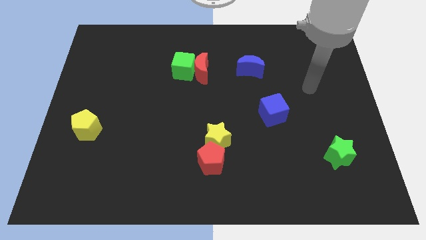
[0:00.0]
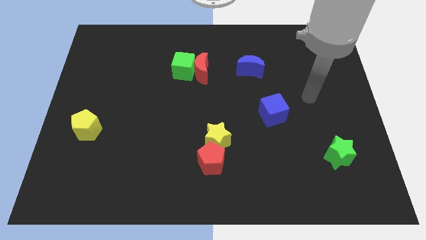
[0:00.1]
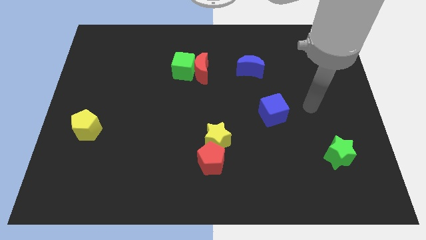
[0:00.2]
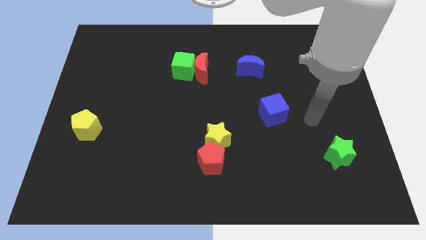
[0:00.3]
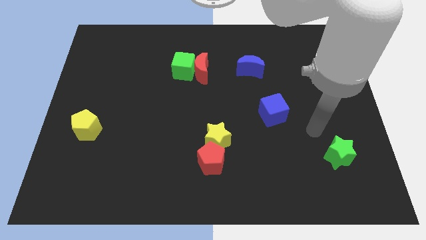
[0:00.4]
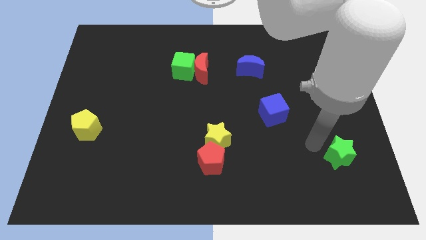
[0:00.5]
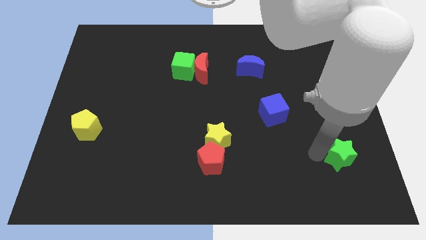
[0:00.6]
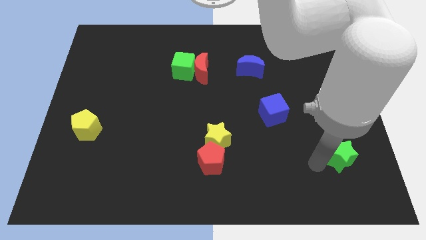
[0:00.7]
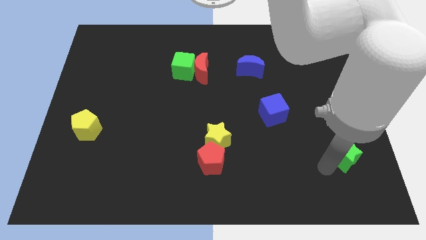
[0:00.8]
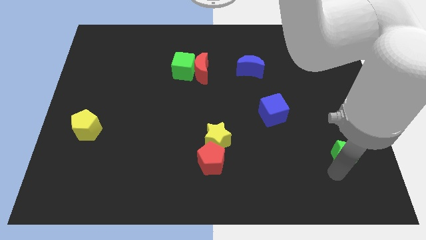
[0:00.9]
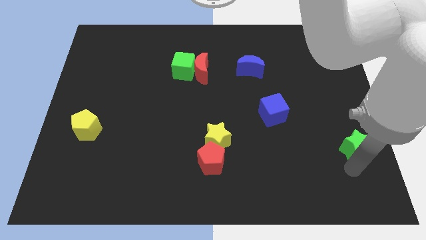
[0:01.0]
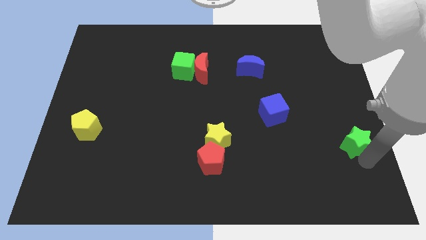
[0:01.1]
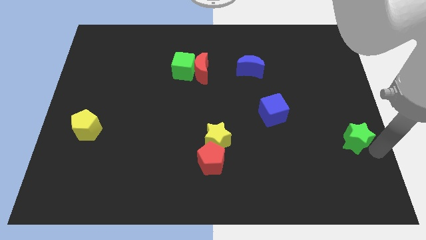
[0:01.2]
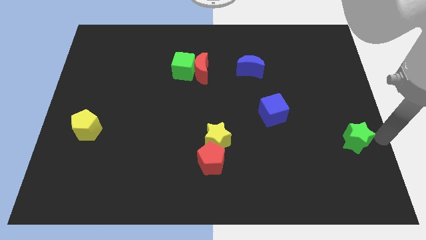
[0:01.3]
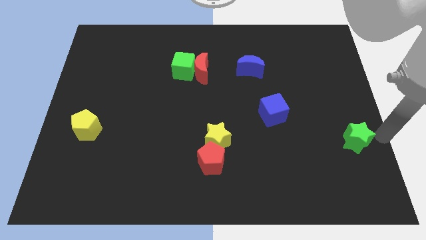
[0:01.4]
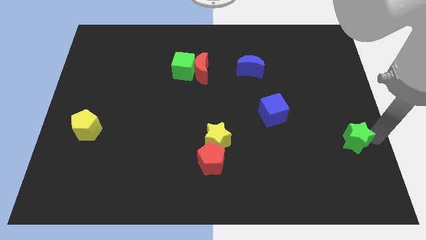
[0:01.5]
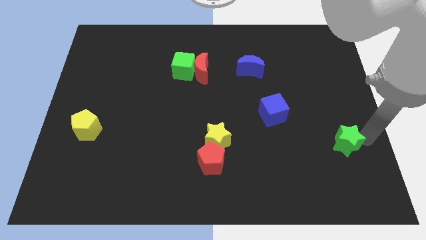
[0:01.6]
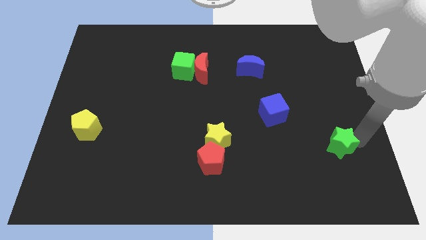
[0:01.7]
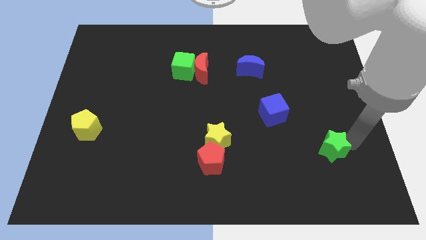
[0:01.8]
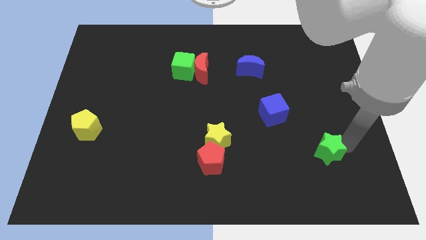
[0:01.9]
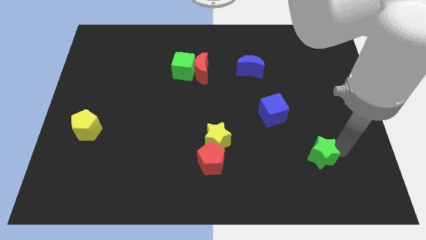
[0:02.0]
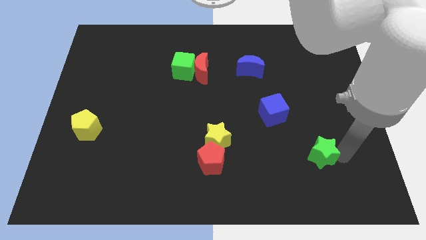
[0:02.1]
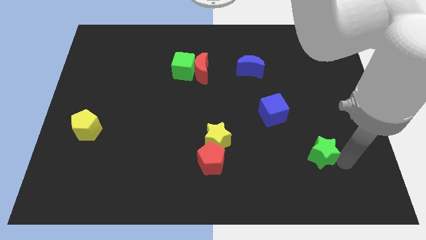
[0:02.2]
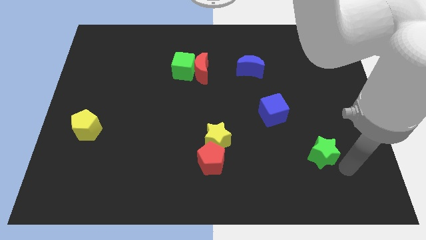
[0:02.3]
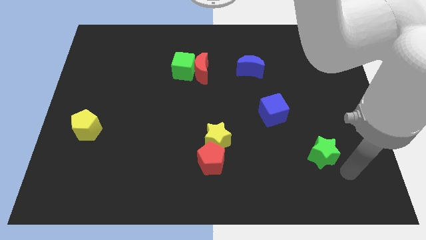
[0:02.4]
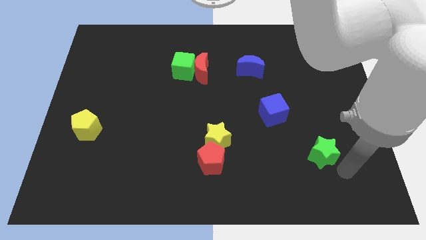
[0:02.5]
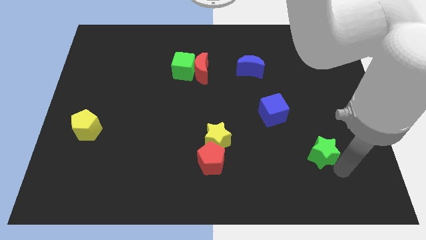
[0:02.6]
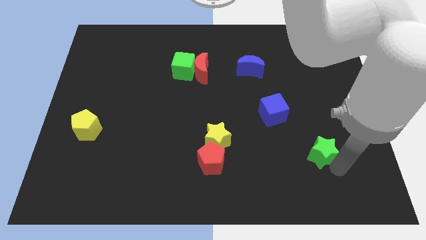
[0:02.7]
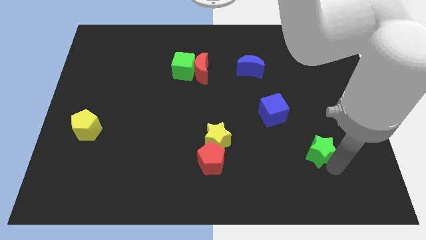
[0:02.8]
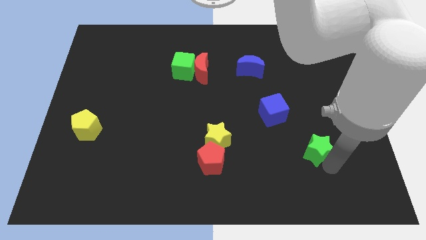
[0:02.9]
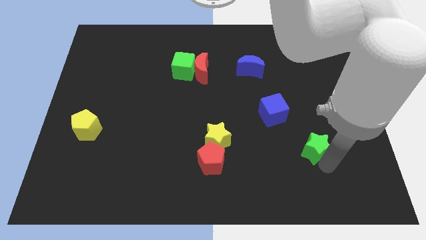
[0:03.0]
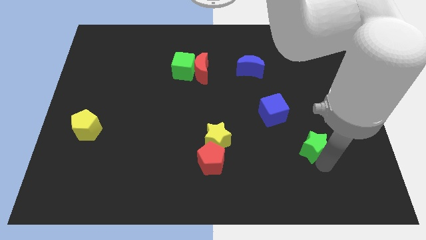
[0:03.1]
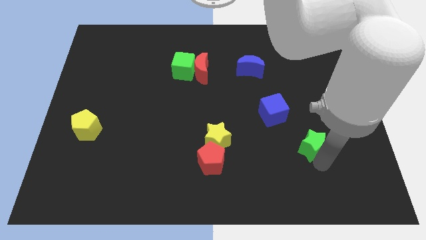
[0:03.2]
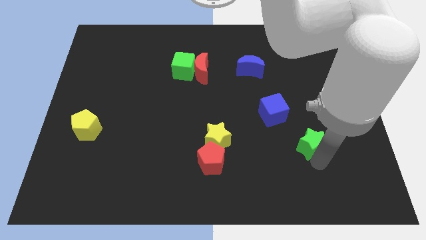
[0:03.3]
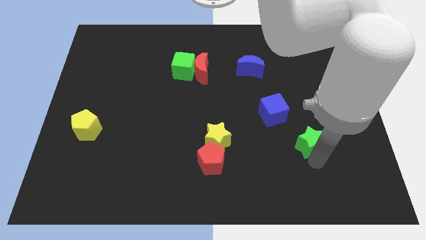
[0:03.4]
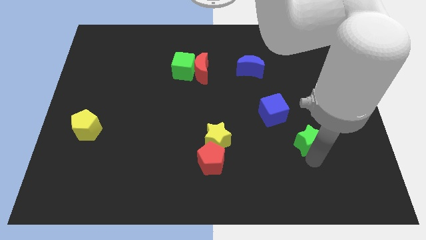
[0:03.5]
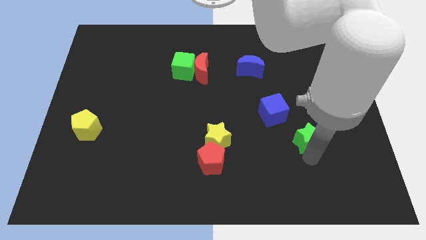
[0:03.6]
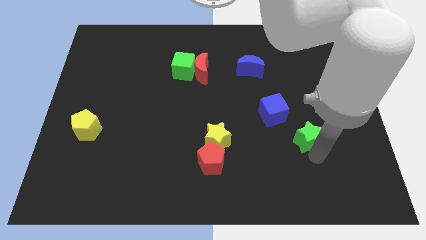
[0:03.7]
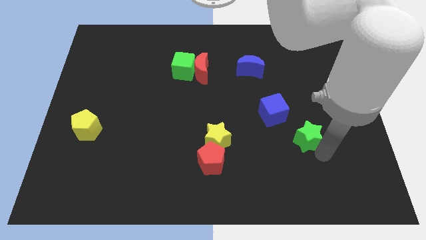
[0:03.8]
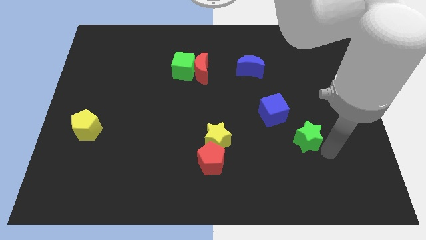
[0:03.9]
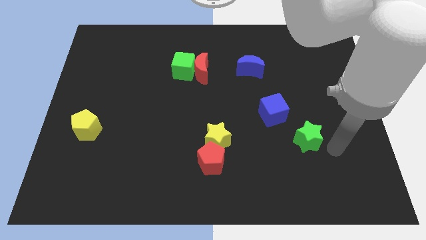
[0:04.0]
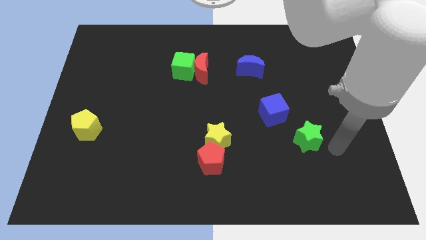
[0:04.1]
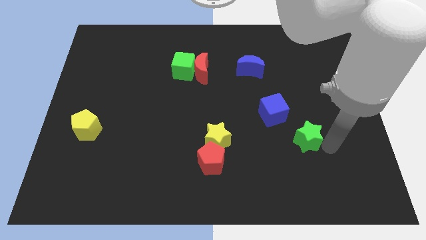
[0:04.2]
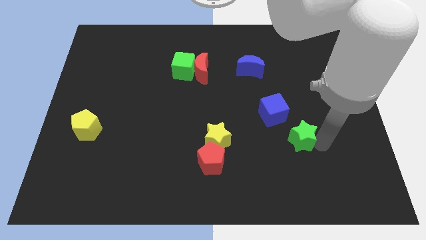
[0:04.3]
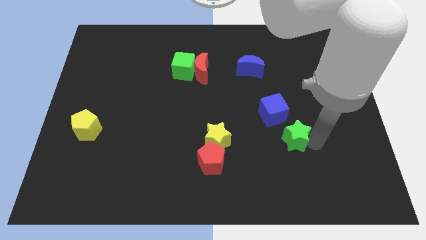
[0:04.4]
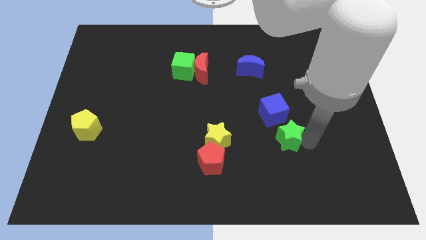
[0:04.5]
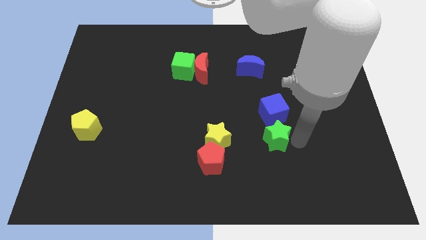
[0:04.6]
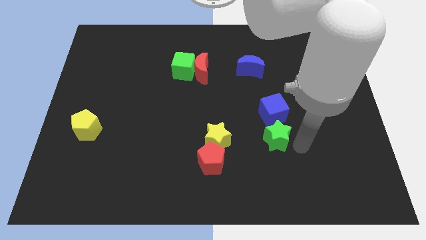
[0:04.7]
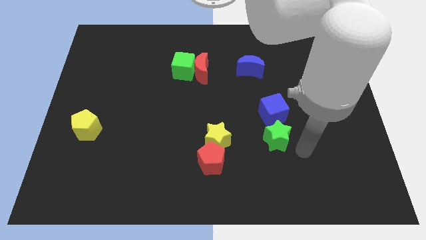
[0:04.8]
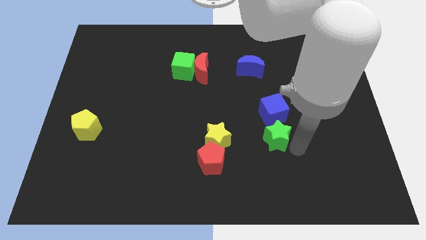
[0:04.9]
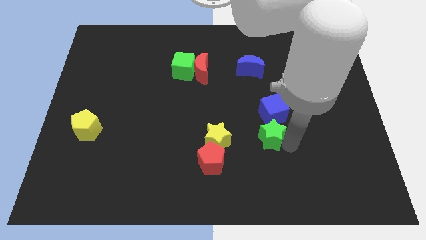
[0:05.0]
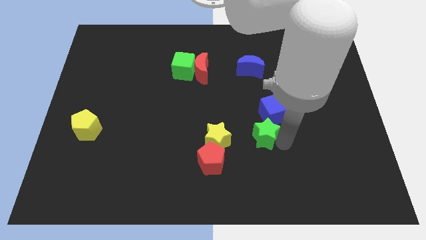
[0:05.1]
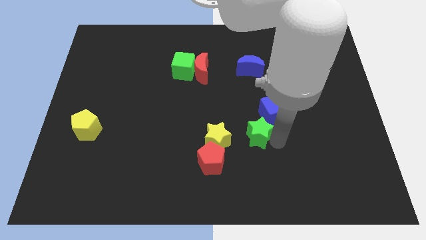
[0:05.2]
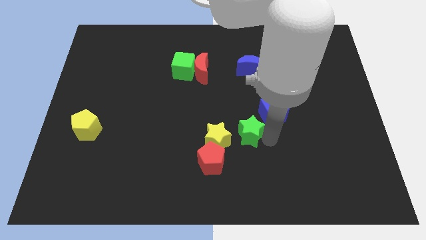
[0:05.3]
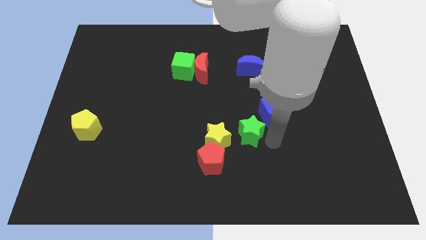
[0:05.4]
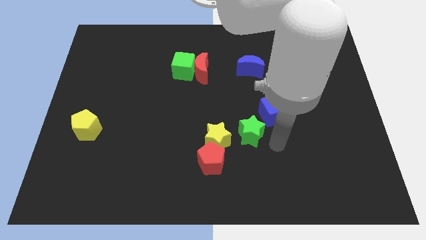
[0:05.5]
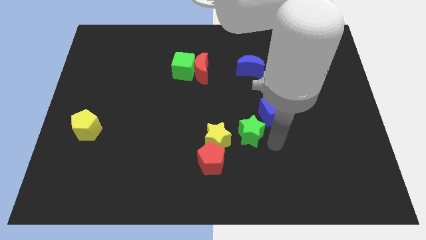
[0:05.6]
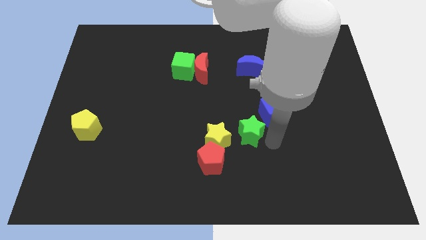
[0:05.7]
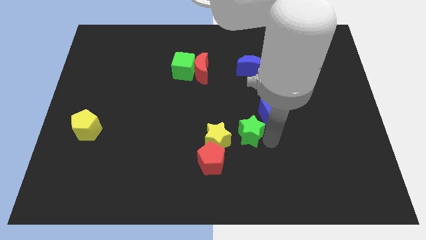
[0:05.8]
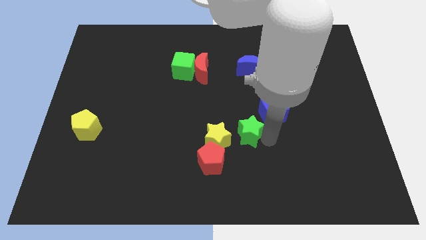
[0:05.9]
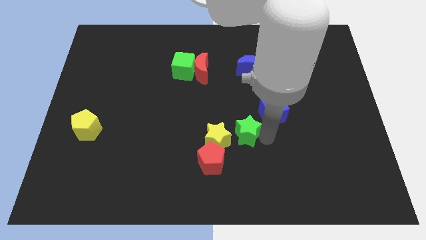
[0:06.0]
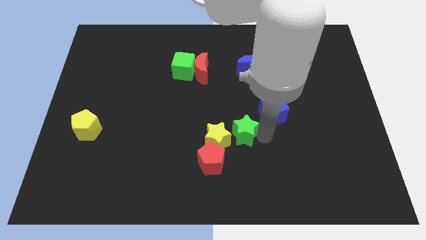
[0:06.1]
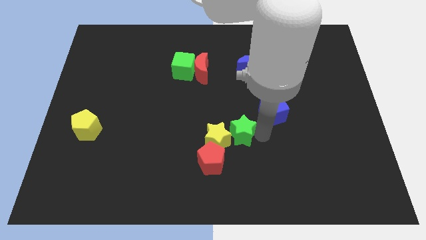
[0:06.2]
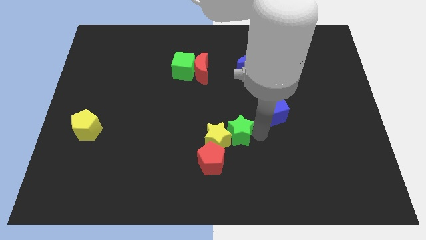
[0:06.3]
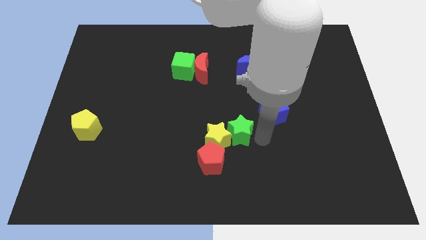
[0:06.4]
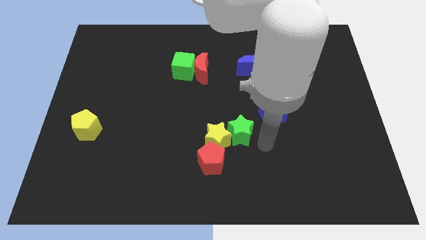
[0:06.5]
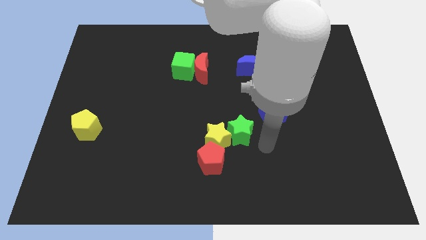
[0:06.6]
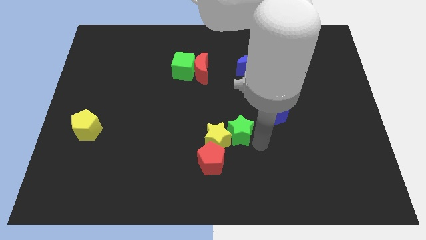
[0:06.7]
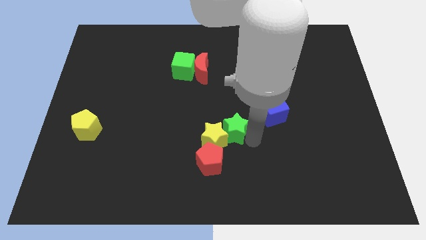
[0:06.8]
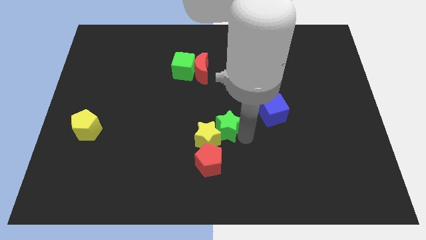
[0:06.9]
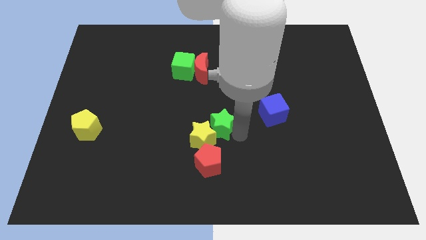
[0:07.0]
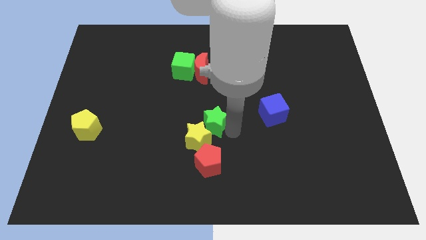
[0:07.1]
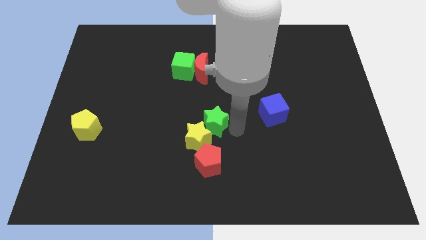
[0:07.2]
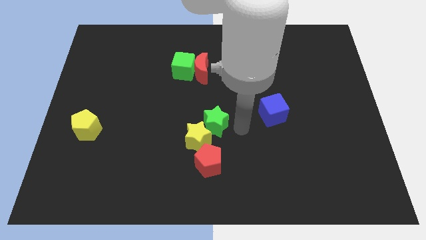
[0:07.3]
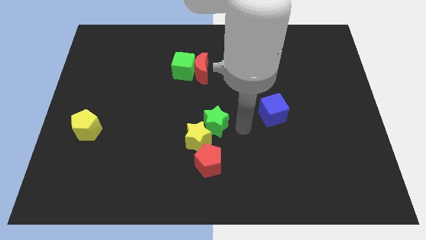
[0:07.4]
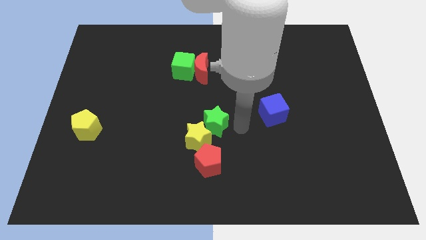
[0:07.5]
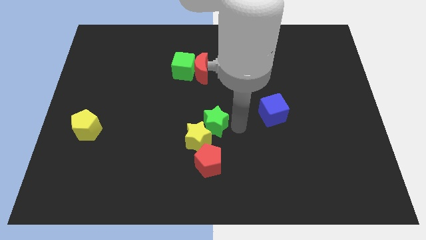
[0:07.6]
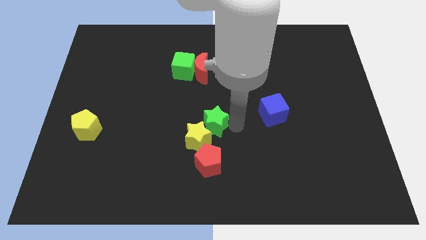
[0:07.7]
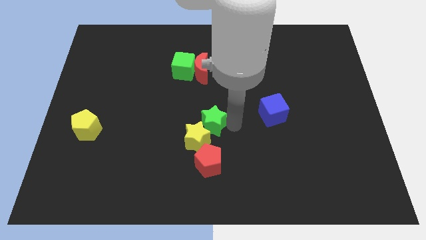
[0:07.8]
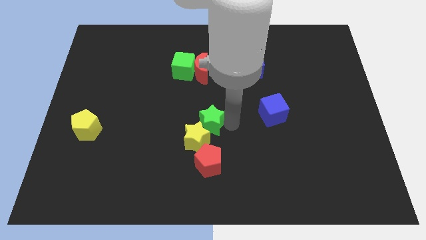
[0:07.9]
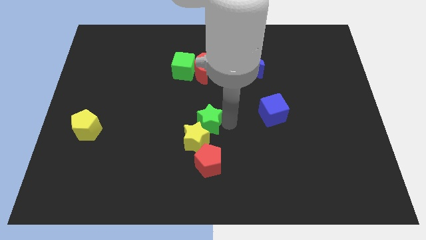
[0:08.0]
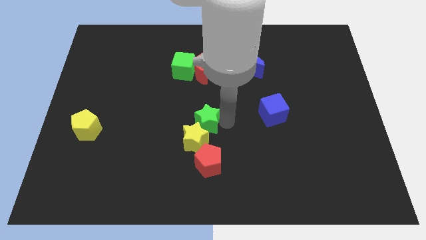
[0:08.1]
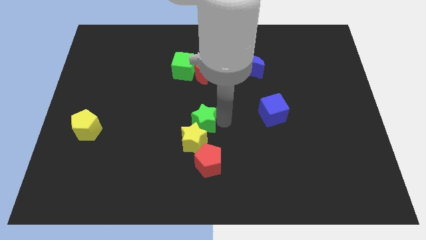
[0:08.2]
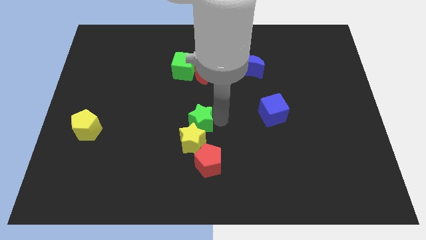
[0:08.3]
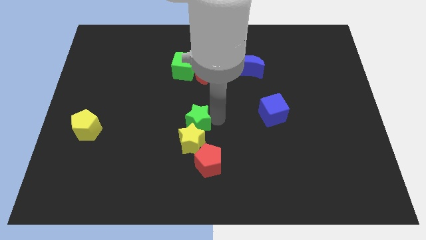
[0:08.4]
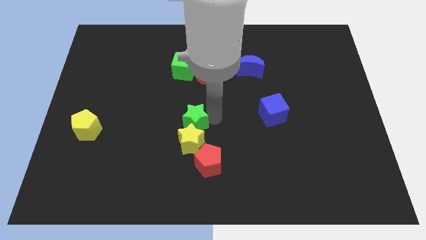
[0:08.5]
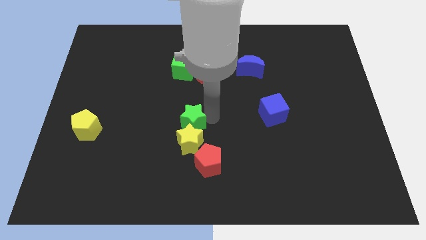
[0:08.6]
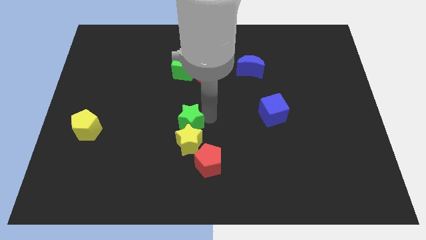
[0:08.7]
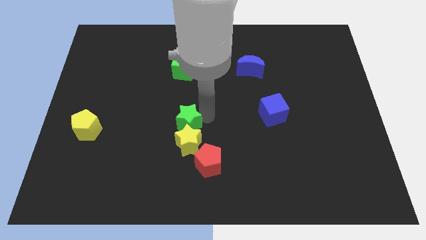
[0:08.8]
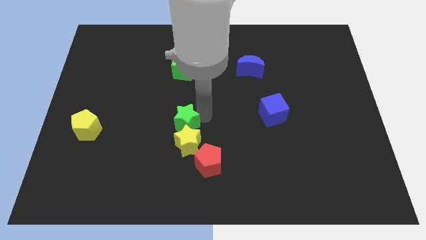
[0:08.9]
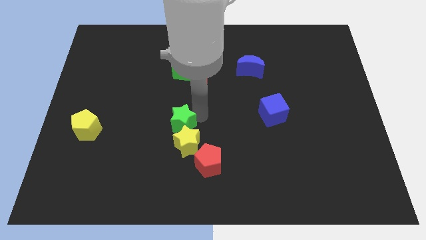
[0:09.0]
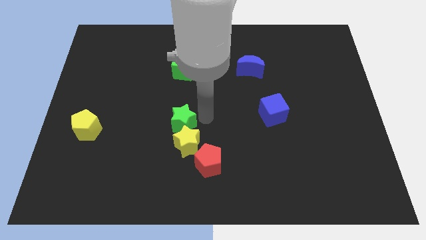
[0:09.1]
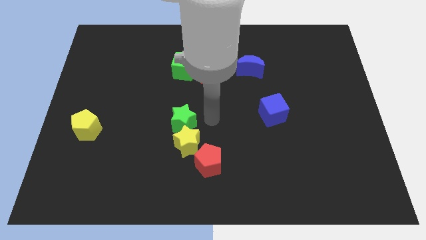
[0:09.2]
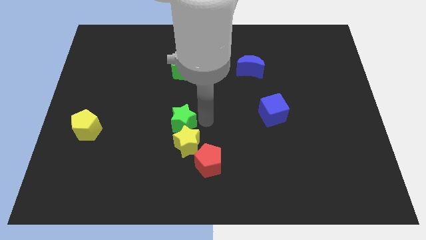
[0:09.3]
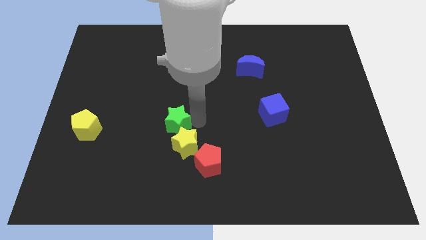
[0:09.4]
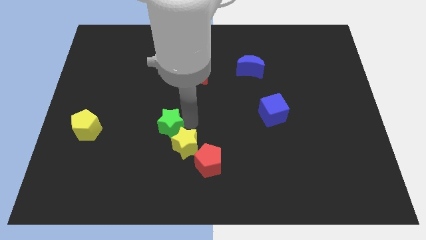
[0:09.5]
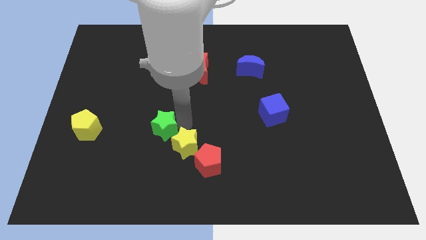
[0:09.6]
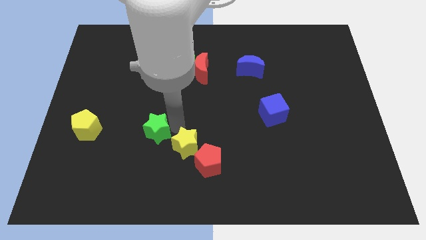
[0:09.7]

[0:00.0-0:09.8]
move the green star to the right side of the yellow pentagon
